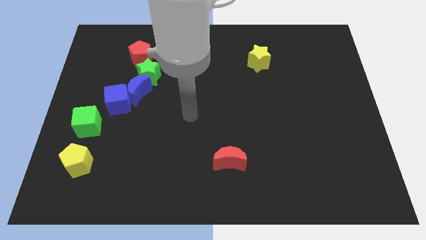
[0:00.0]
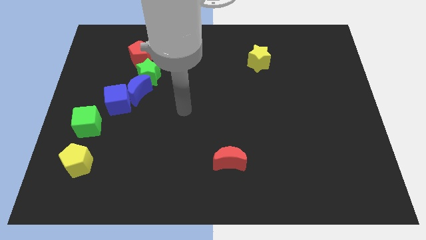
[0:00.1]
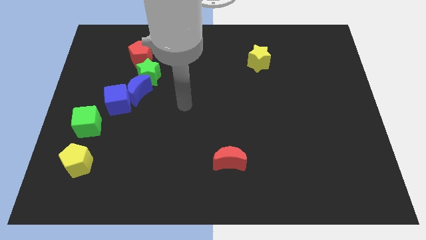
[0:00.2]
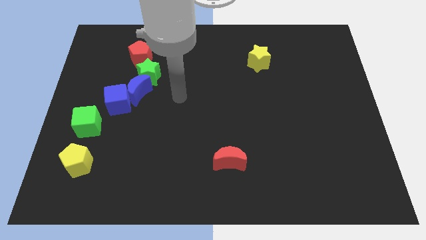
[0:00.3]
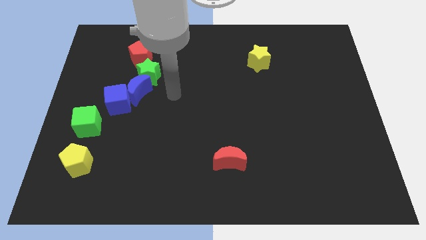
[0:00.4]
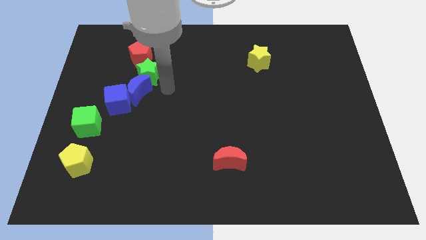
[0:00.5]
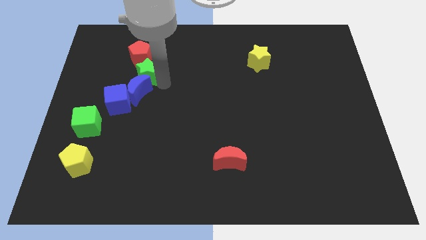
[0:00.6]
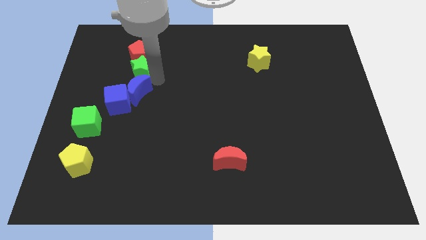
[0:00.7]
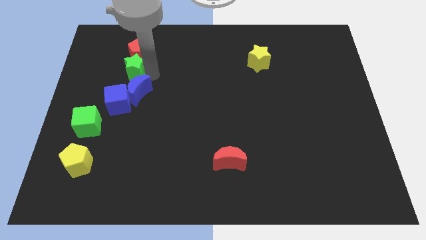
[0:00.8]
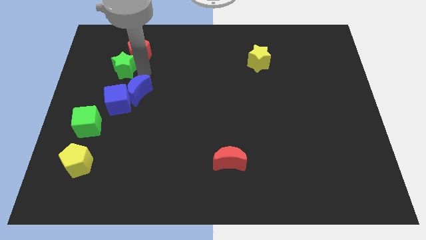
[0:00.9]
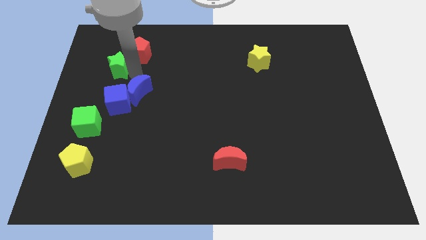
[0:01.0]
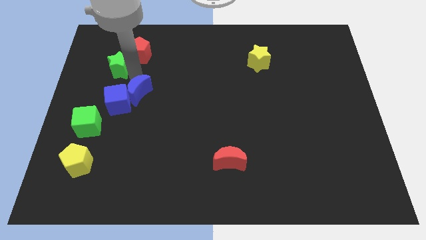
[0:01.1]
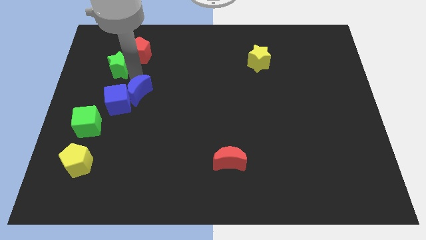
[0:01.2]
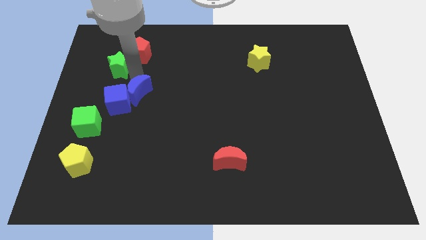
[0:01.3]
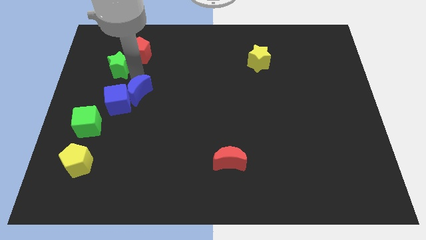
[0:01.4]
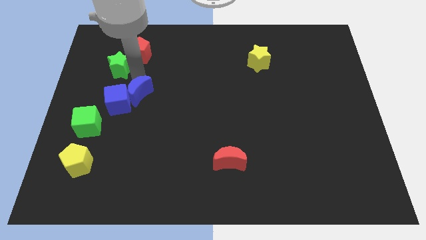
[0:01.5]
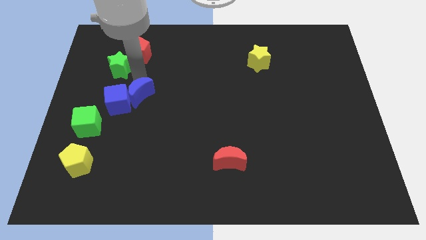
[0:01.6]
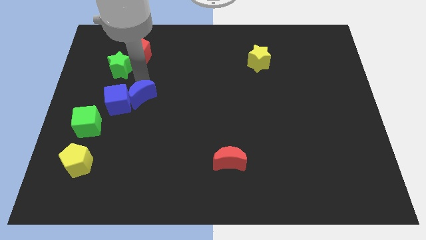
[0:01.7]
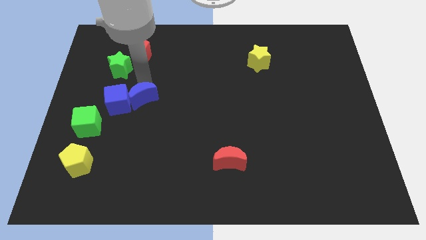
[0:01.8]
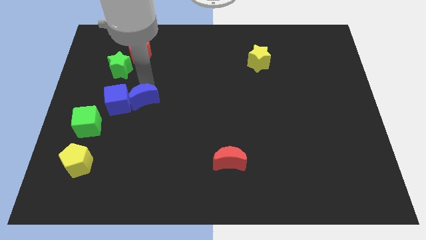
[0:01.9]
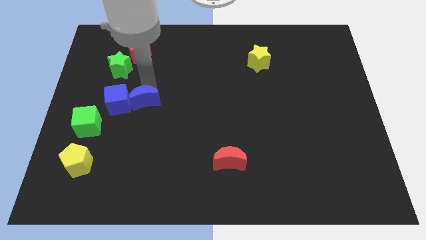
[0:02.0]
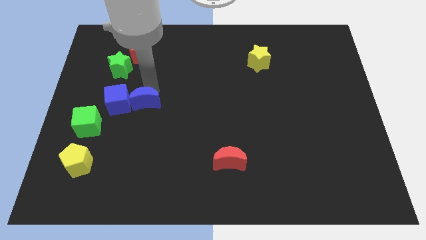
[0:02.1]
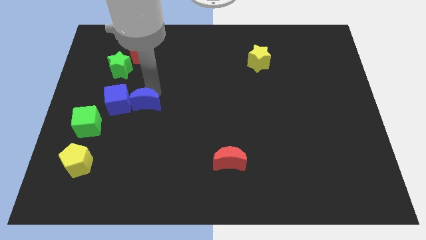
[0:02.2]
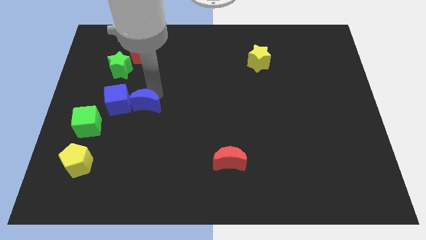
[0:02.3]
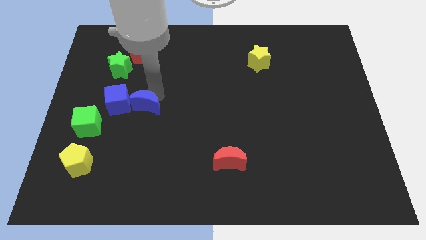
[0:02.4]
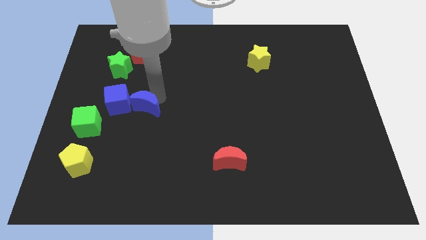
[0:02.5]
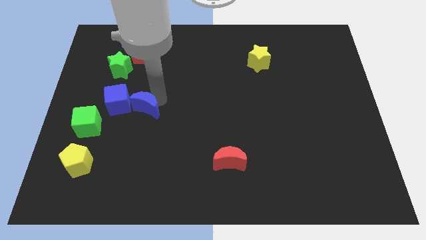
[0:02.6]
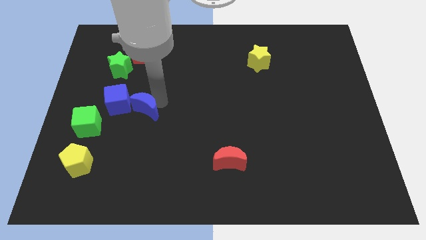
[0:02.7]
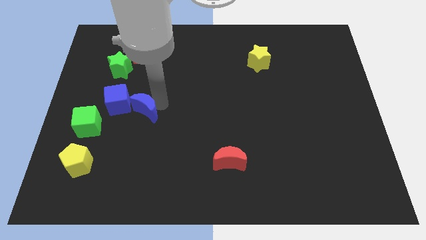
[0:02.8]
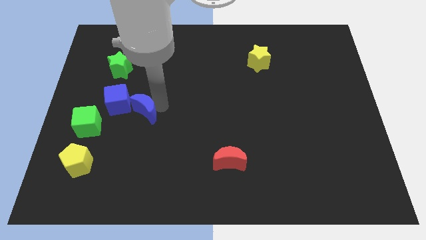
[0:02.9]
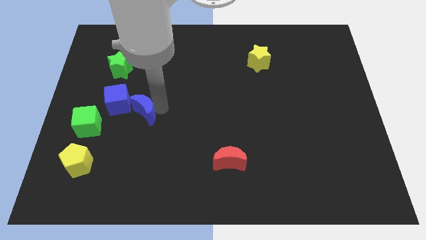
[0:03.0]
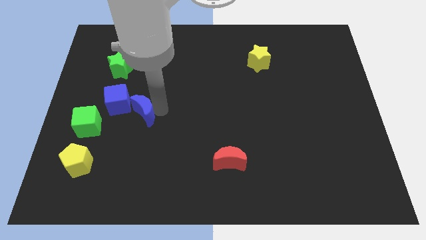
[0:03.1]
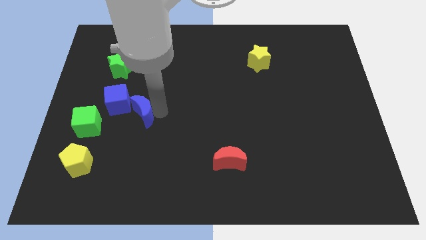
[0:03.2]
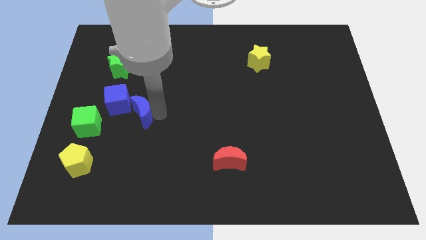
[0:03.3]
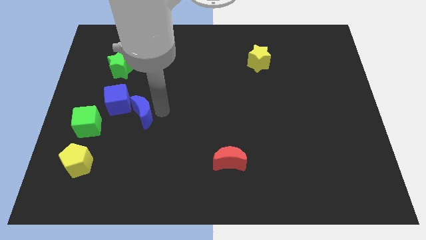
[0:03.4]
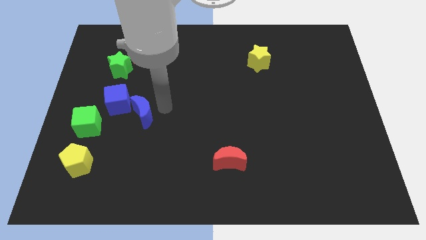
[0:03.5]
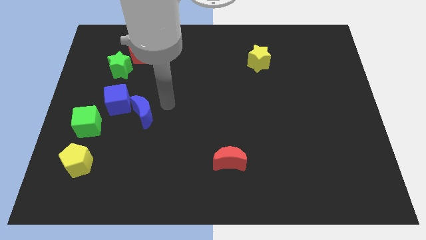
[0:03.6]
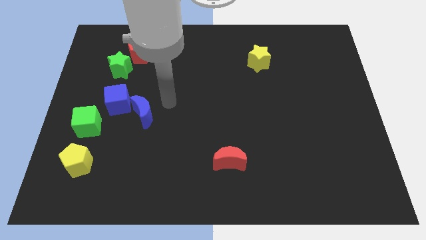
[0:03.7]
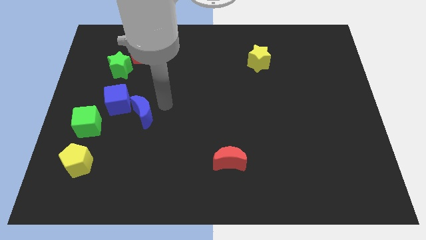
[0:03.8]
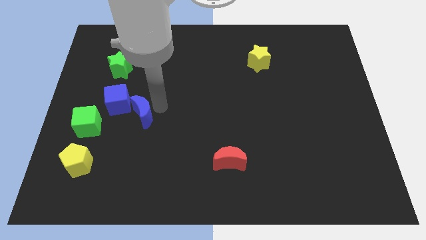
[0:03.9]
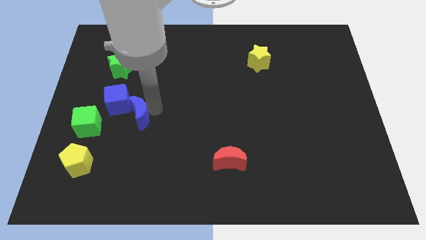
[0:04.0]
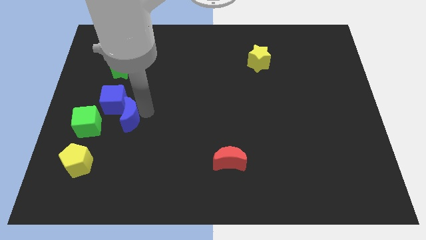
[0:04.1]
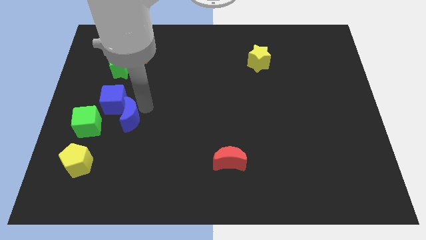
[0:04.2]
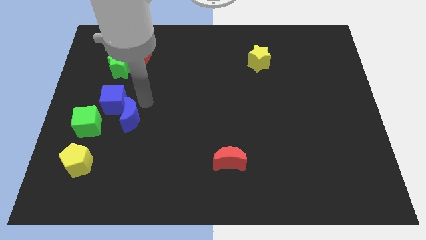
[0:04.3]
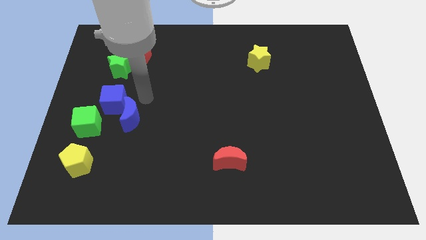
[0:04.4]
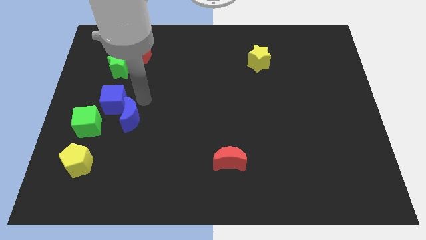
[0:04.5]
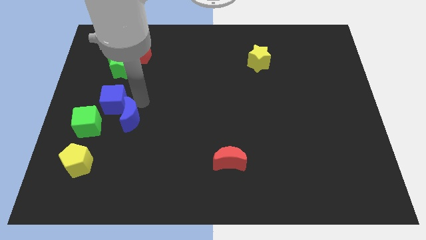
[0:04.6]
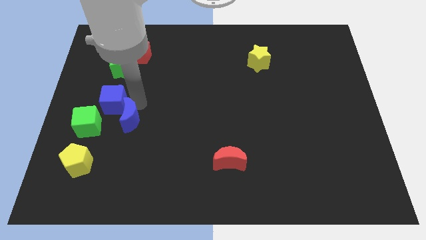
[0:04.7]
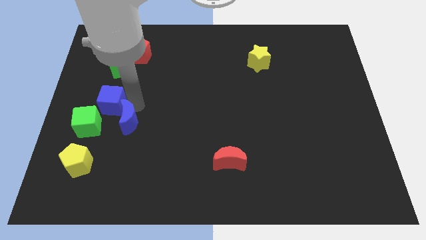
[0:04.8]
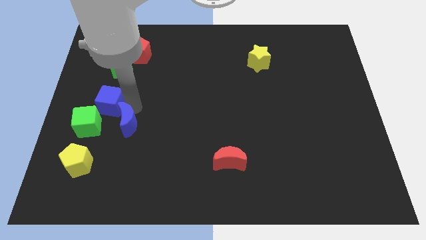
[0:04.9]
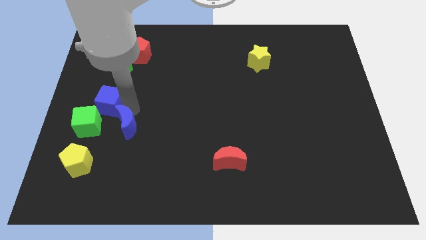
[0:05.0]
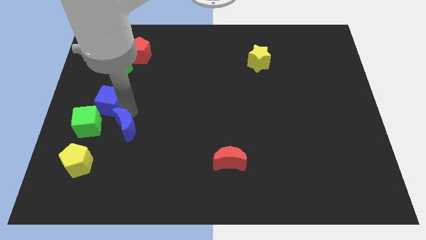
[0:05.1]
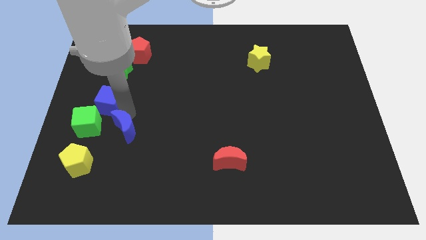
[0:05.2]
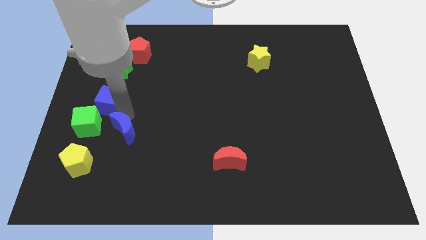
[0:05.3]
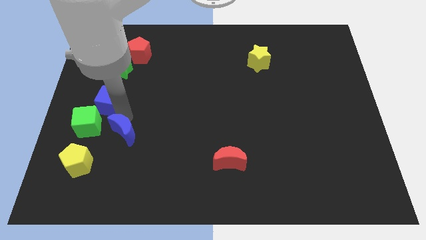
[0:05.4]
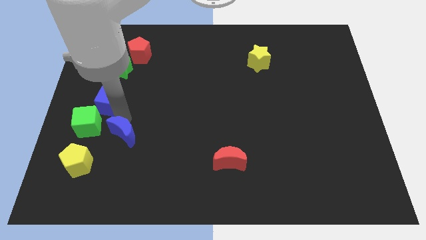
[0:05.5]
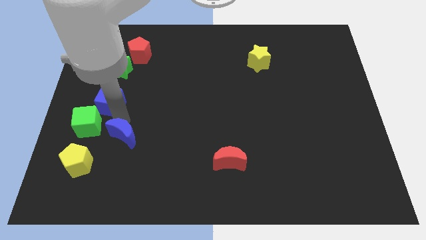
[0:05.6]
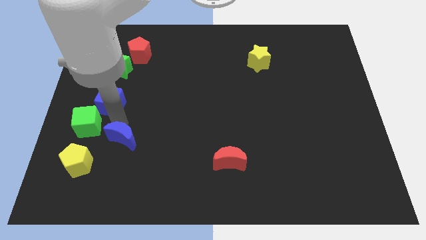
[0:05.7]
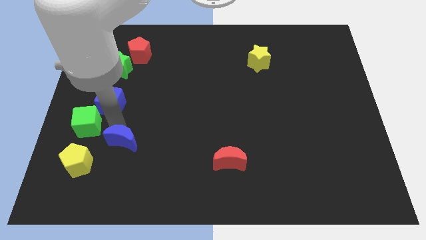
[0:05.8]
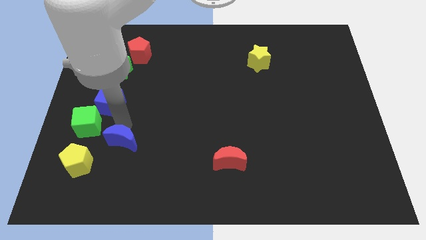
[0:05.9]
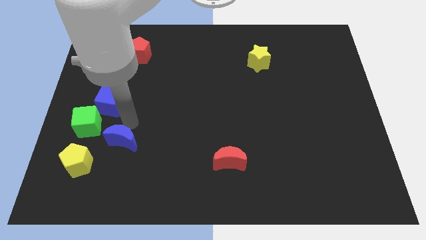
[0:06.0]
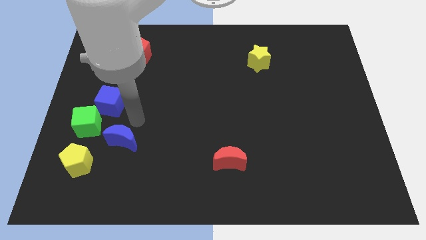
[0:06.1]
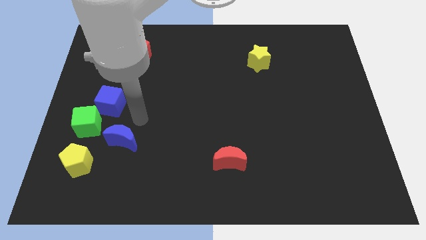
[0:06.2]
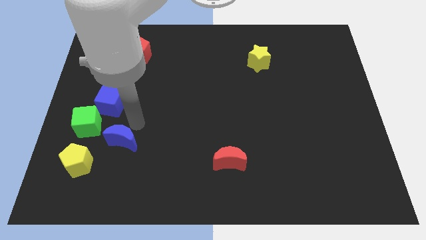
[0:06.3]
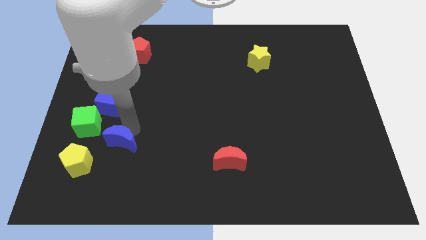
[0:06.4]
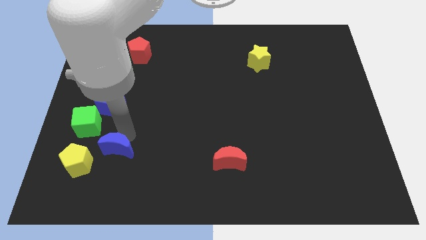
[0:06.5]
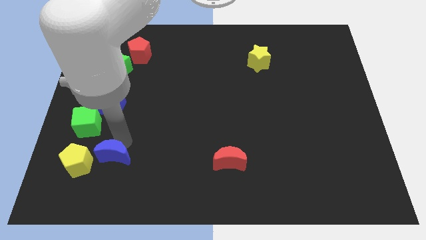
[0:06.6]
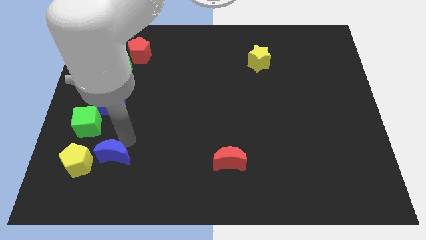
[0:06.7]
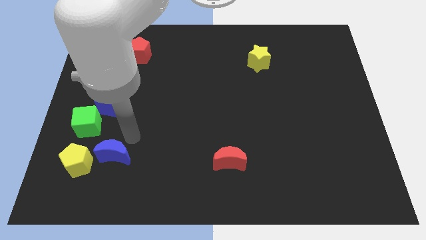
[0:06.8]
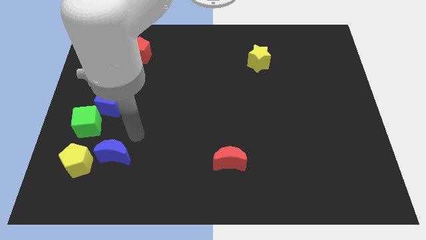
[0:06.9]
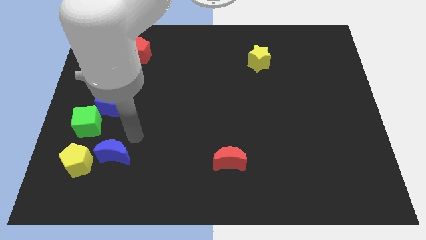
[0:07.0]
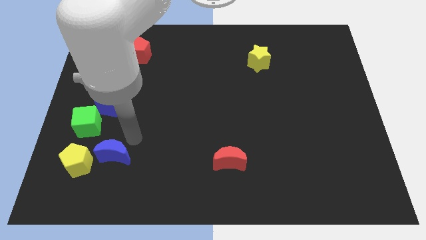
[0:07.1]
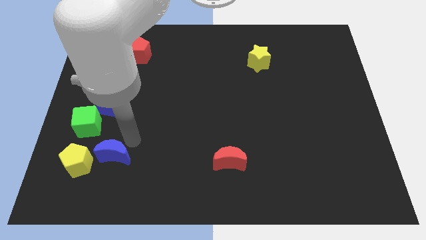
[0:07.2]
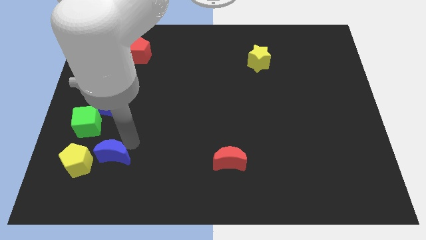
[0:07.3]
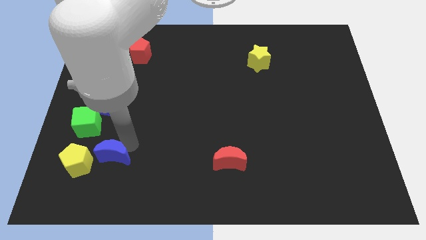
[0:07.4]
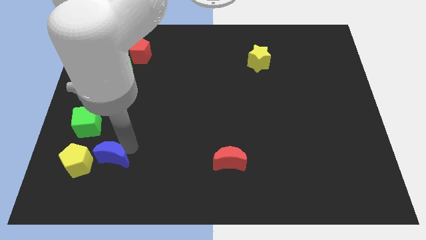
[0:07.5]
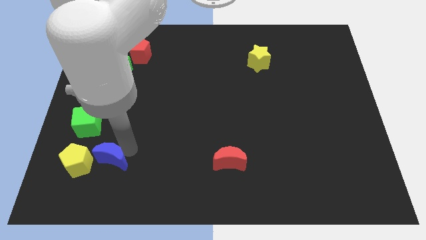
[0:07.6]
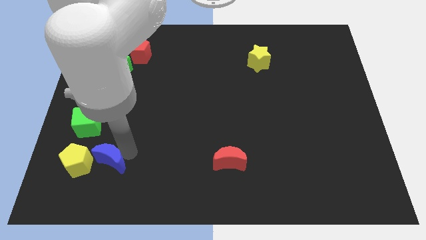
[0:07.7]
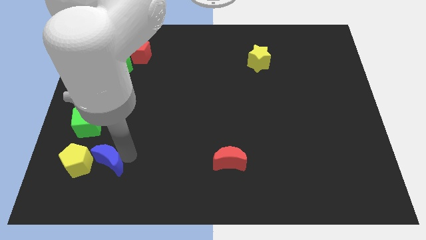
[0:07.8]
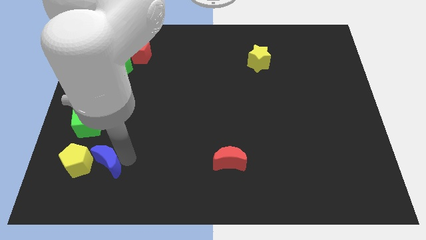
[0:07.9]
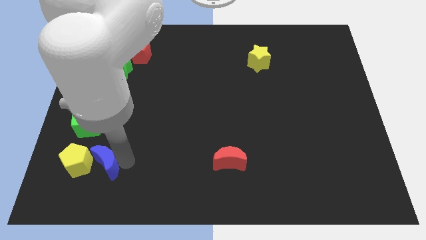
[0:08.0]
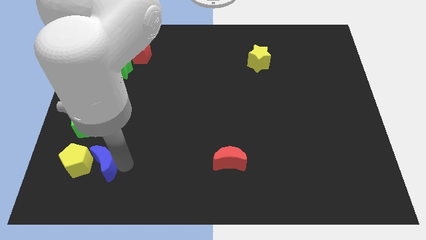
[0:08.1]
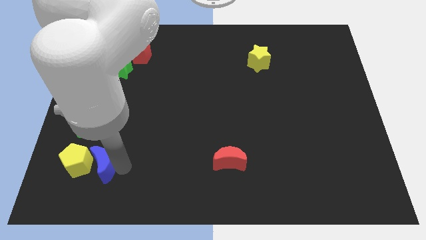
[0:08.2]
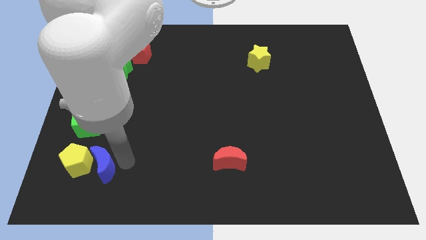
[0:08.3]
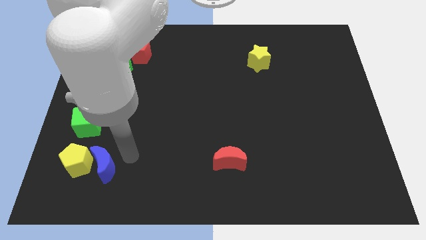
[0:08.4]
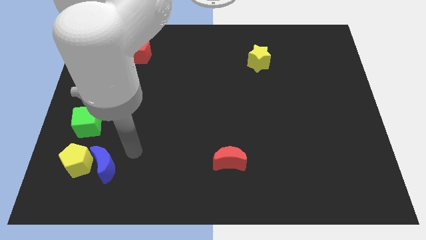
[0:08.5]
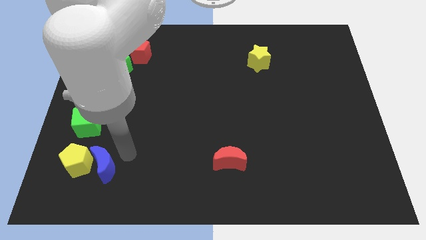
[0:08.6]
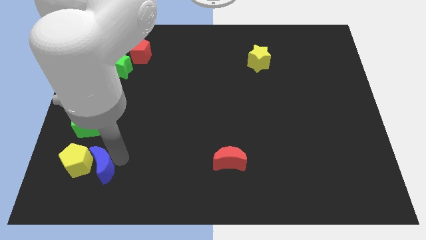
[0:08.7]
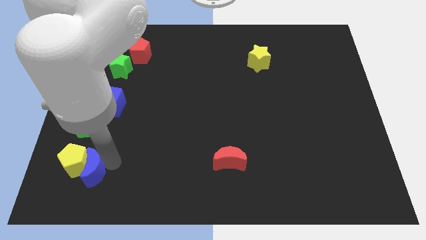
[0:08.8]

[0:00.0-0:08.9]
push the blue moon to the bottom of the green cube
